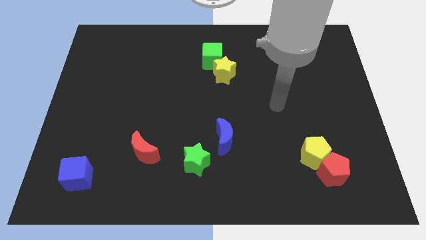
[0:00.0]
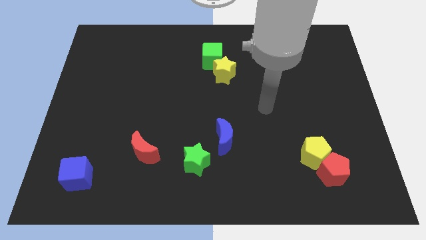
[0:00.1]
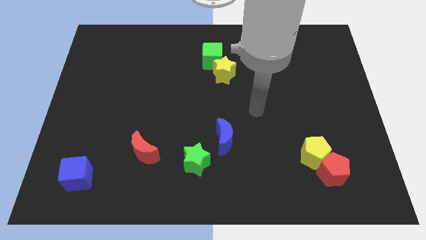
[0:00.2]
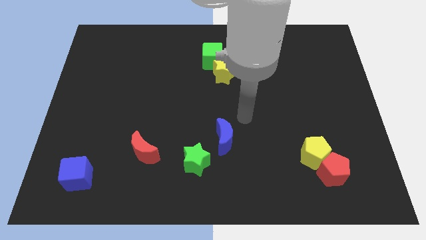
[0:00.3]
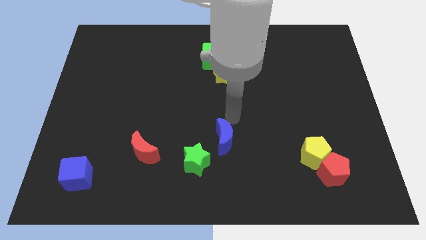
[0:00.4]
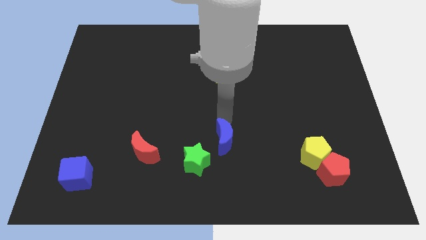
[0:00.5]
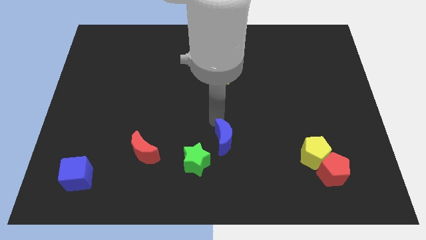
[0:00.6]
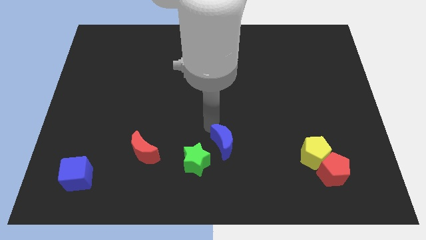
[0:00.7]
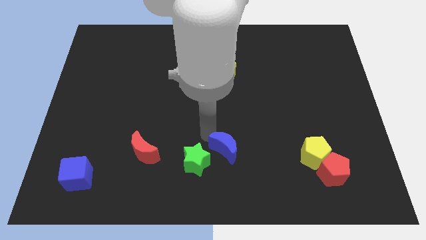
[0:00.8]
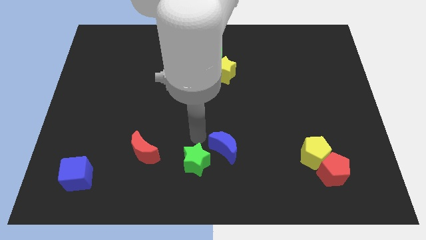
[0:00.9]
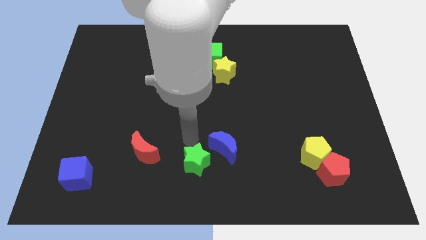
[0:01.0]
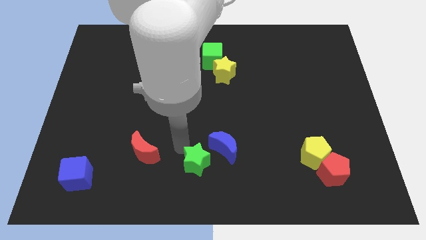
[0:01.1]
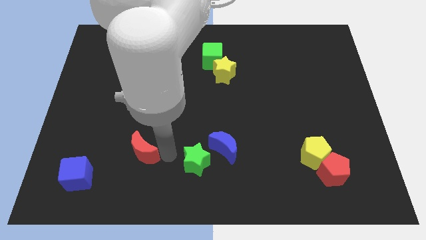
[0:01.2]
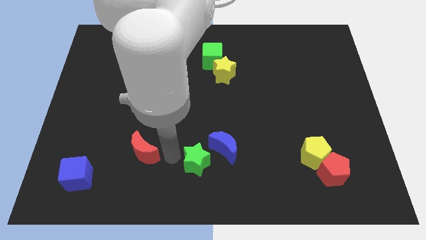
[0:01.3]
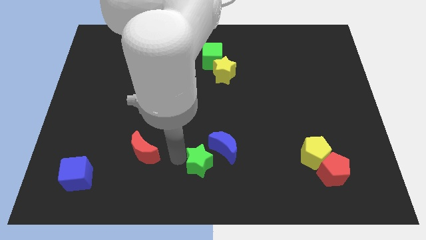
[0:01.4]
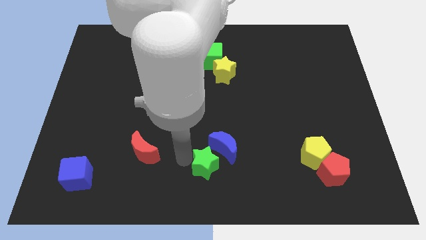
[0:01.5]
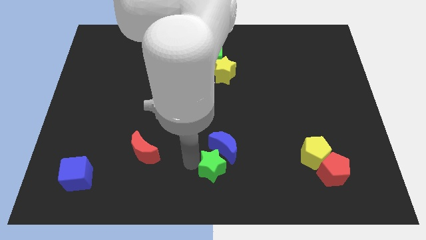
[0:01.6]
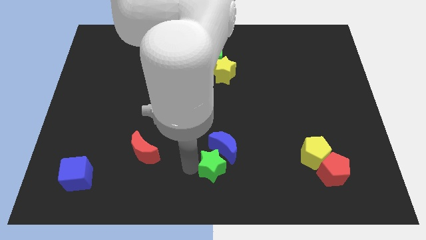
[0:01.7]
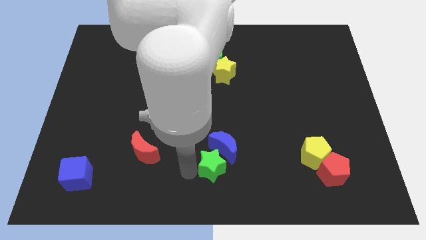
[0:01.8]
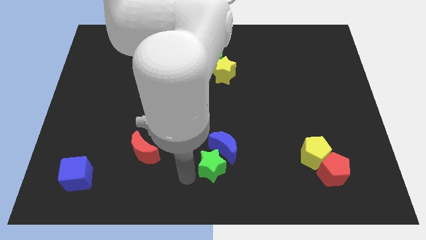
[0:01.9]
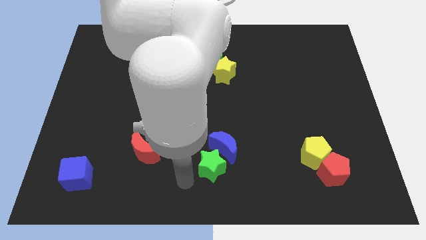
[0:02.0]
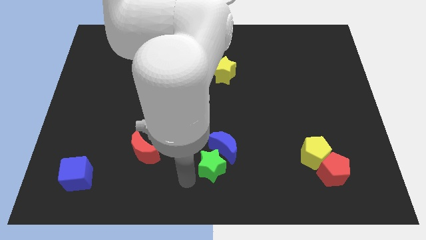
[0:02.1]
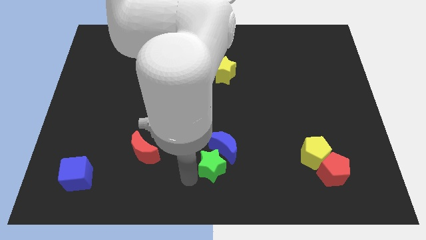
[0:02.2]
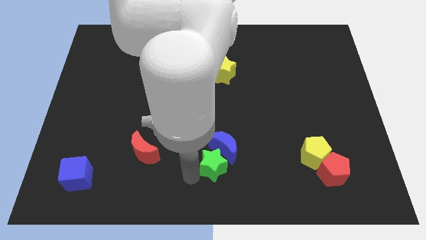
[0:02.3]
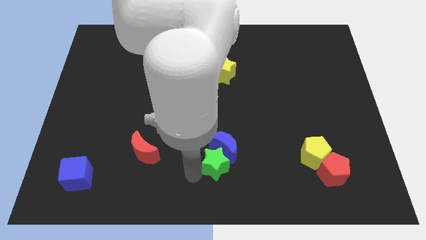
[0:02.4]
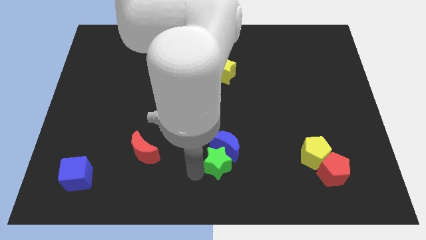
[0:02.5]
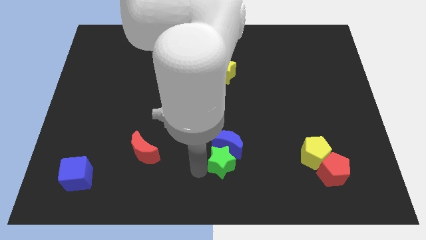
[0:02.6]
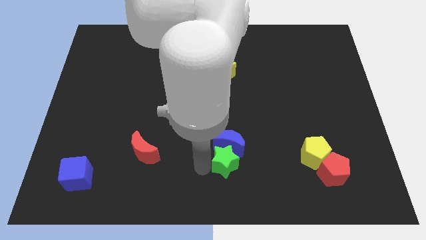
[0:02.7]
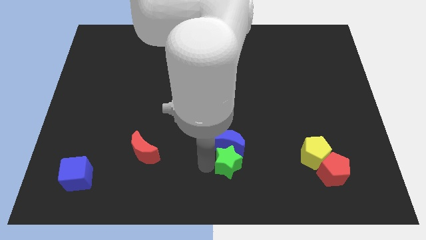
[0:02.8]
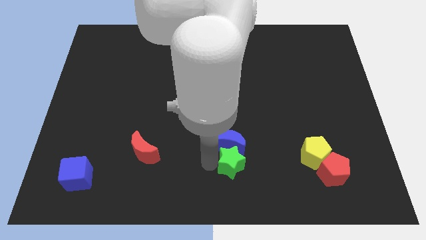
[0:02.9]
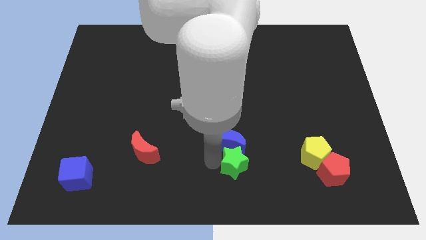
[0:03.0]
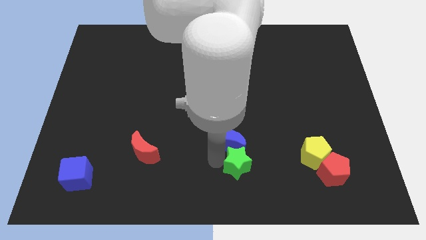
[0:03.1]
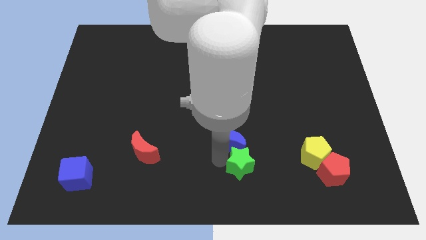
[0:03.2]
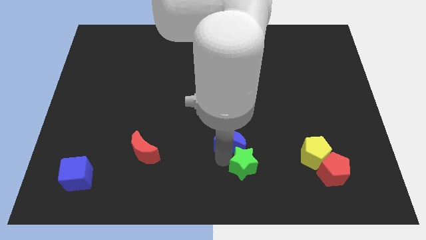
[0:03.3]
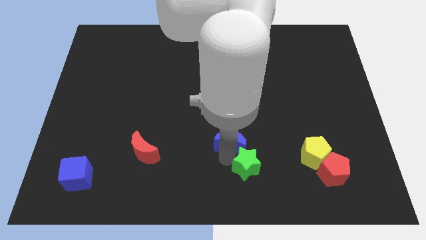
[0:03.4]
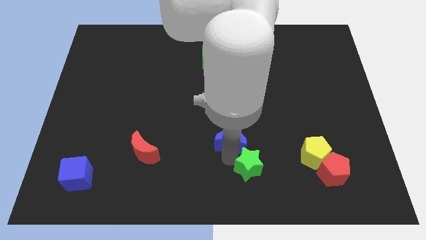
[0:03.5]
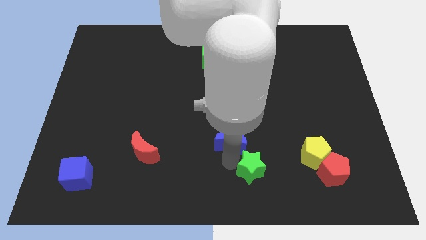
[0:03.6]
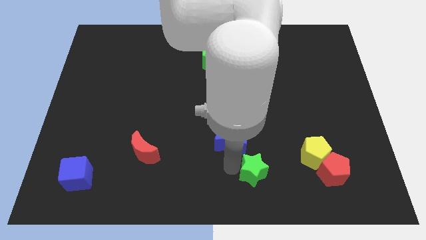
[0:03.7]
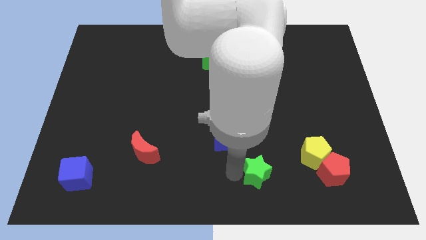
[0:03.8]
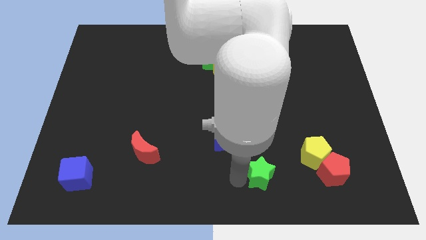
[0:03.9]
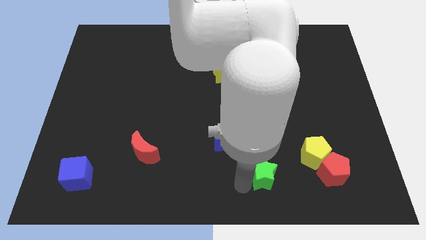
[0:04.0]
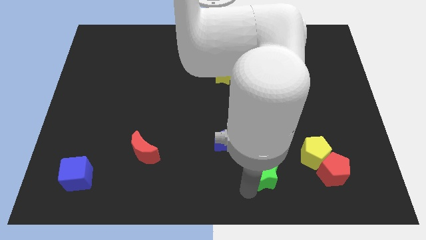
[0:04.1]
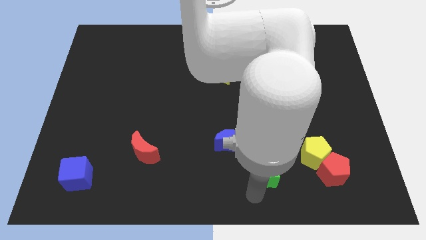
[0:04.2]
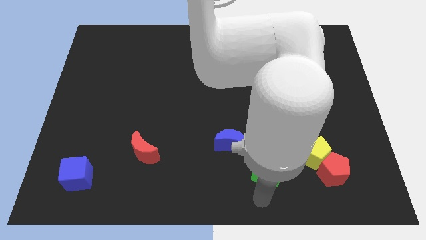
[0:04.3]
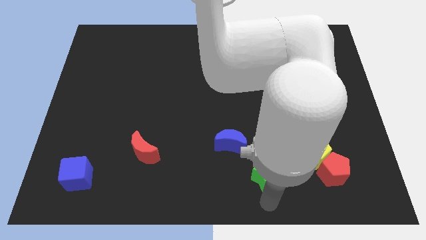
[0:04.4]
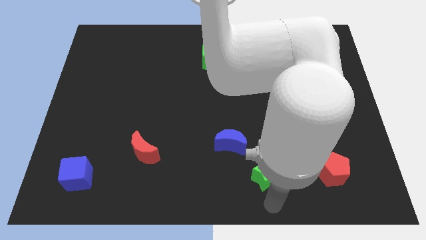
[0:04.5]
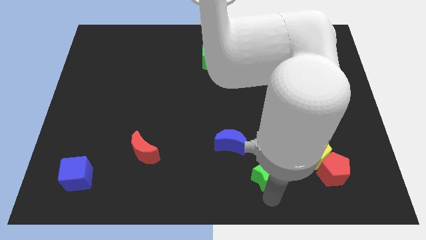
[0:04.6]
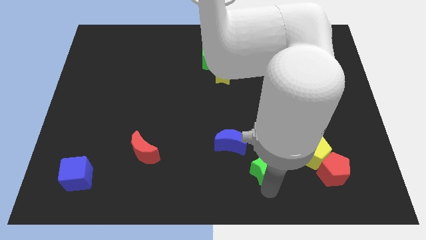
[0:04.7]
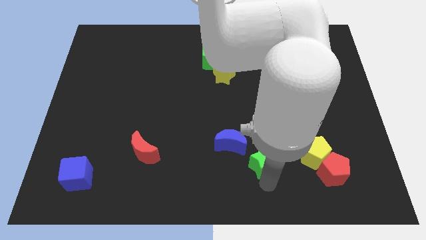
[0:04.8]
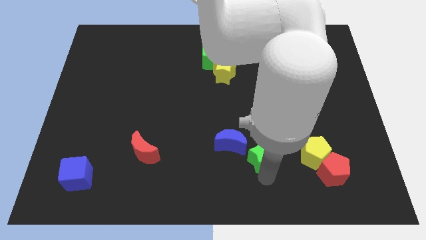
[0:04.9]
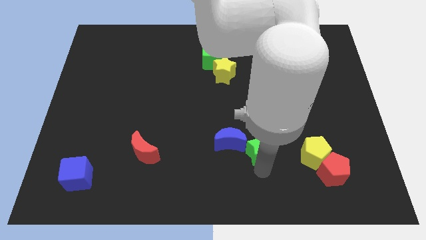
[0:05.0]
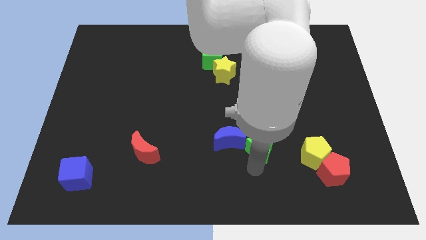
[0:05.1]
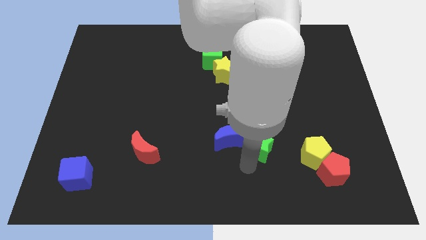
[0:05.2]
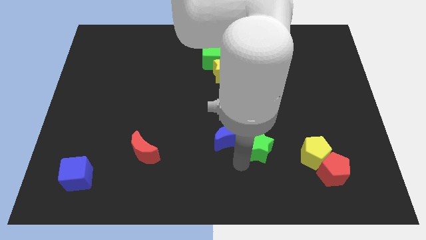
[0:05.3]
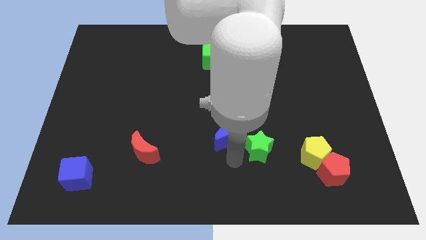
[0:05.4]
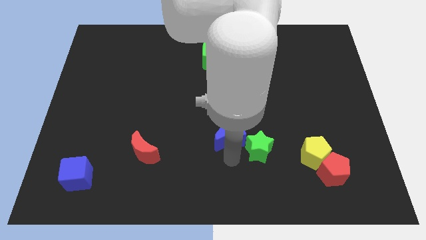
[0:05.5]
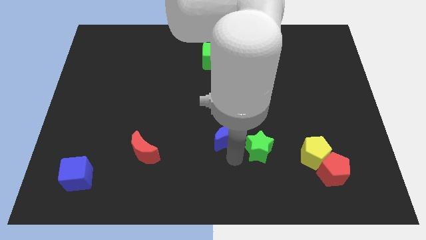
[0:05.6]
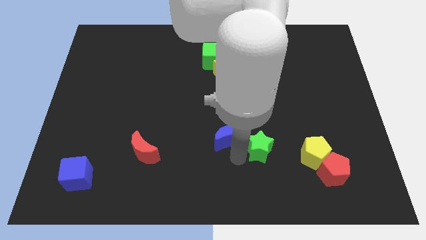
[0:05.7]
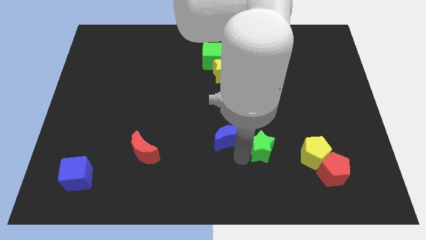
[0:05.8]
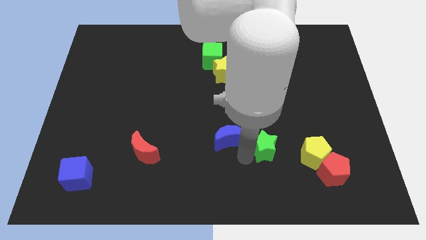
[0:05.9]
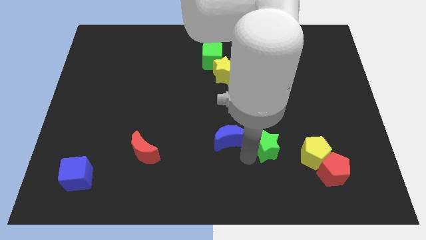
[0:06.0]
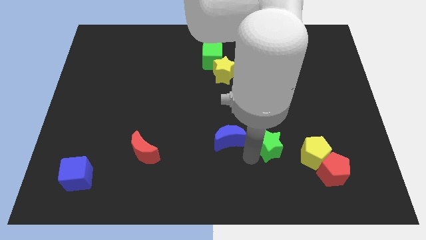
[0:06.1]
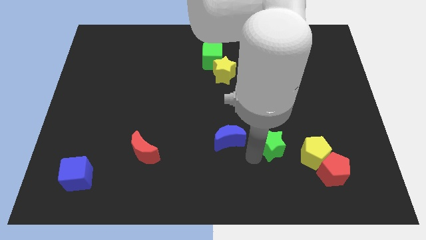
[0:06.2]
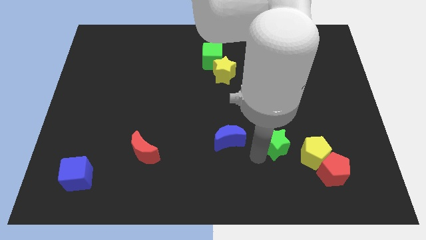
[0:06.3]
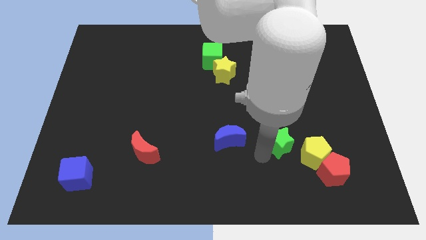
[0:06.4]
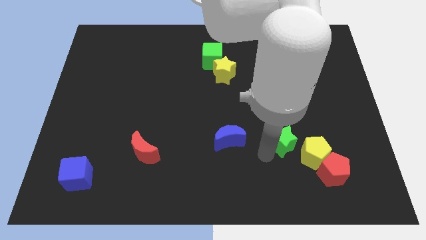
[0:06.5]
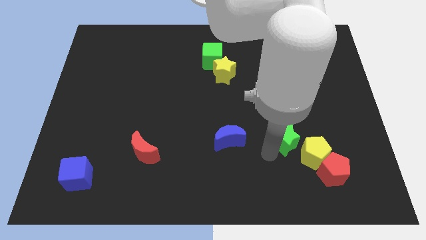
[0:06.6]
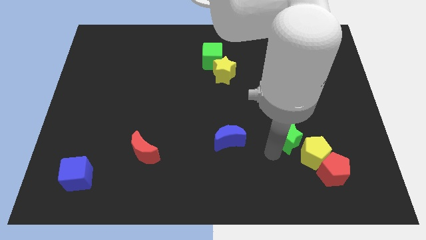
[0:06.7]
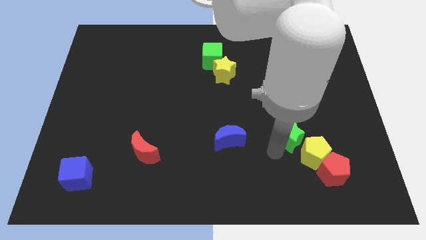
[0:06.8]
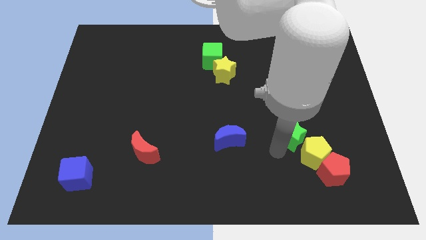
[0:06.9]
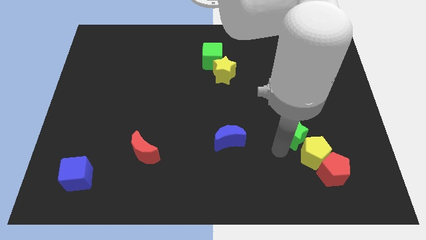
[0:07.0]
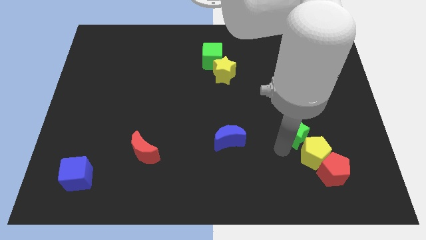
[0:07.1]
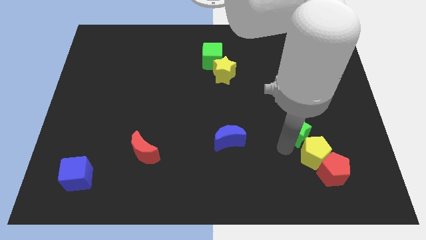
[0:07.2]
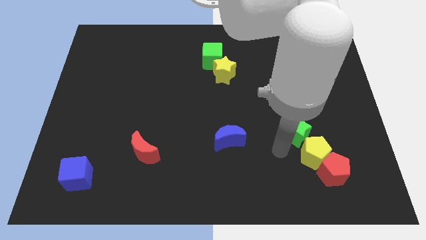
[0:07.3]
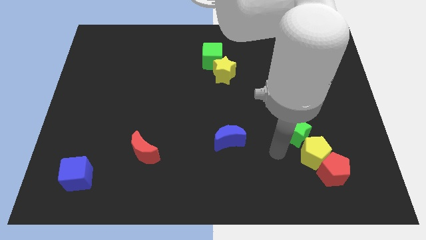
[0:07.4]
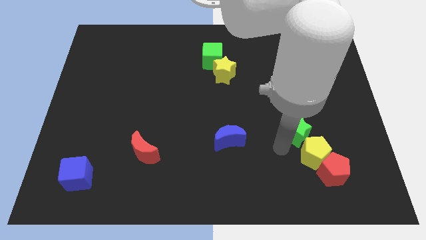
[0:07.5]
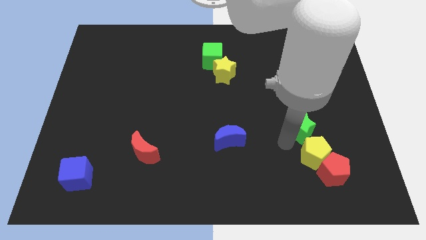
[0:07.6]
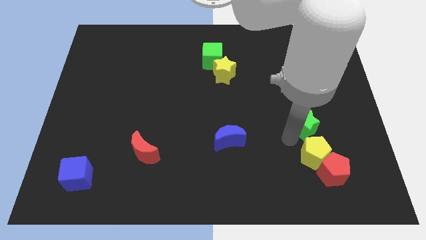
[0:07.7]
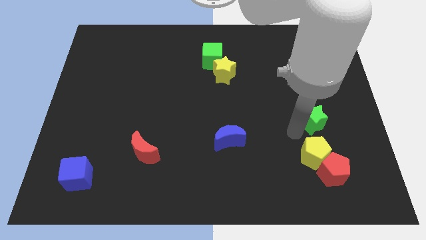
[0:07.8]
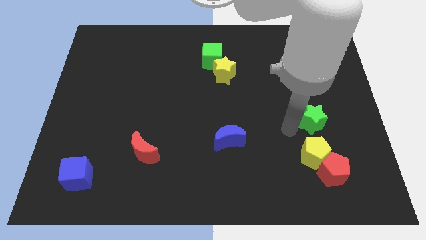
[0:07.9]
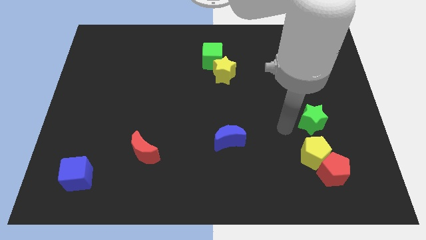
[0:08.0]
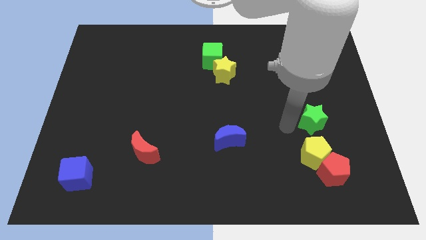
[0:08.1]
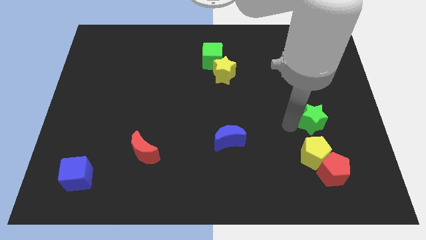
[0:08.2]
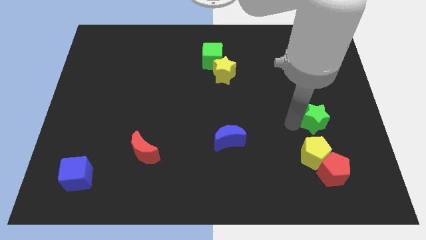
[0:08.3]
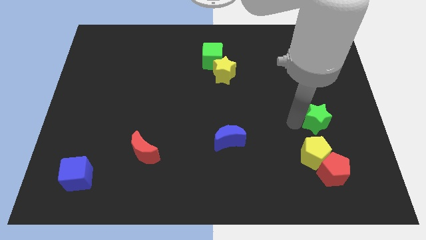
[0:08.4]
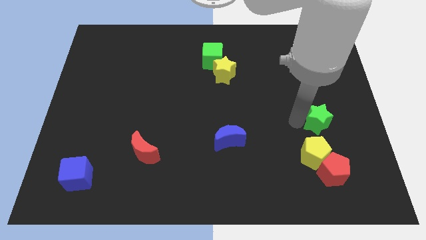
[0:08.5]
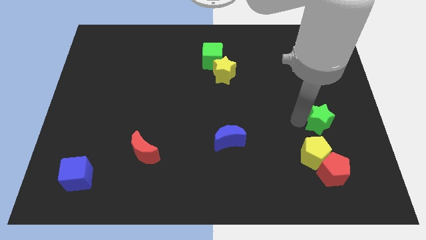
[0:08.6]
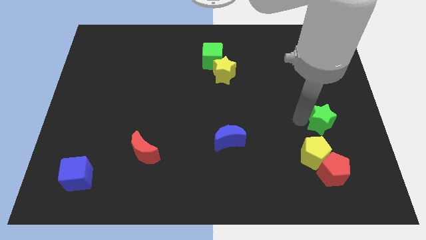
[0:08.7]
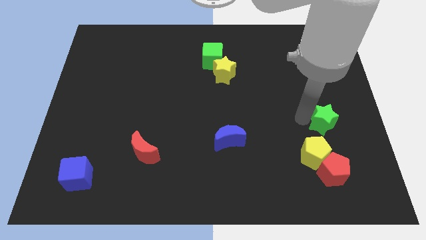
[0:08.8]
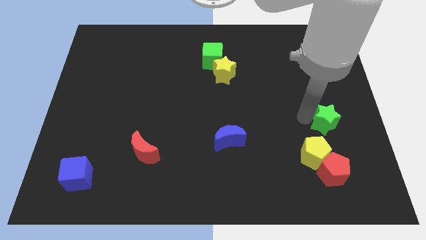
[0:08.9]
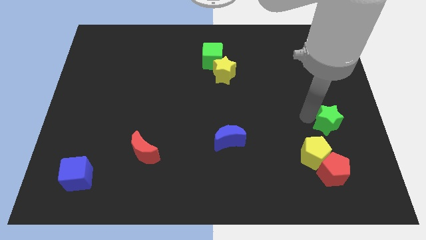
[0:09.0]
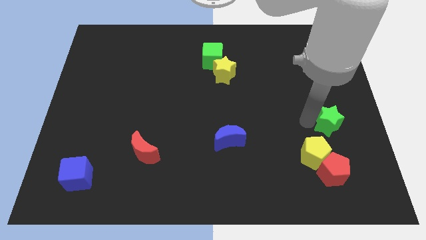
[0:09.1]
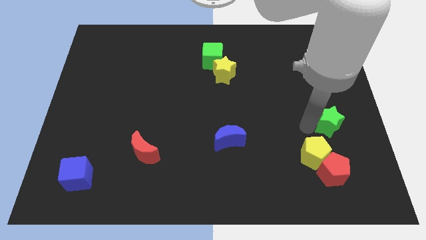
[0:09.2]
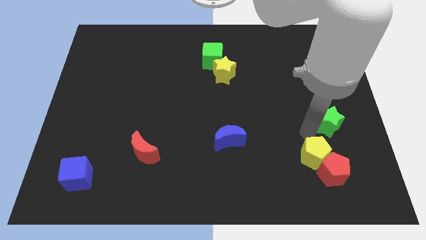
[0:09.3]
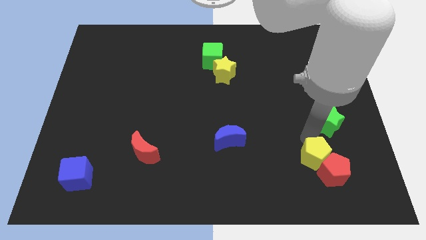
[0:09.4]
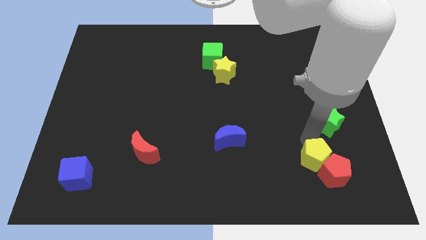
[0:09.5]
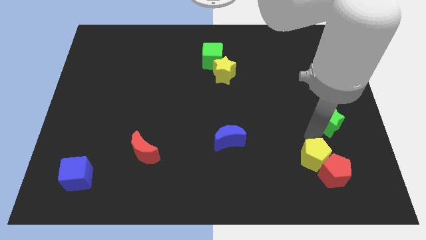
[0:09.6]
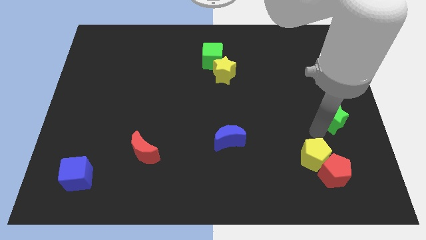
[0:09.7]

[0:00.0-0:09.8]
push the green star to the center right
